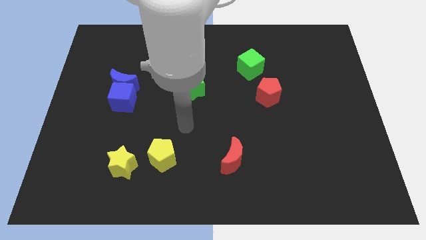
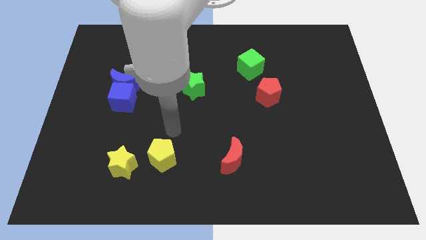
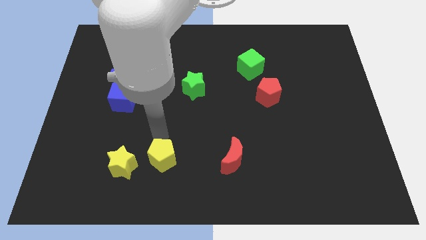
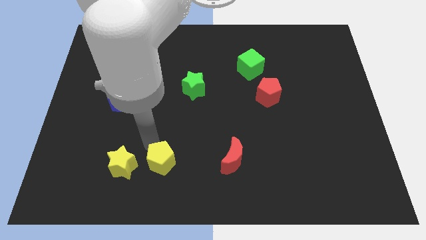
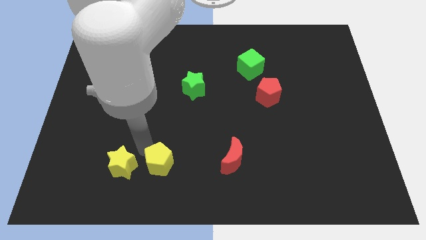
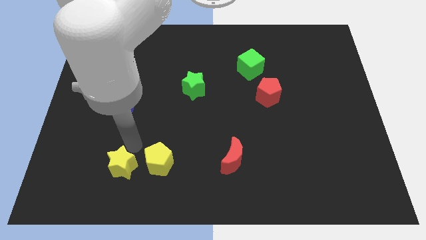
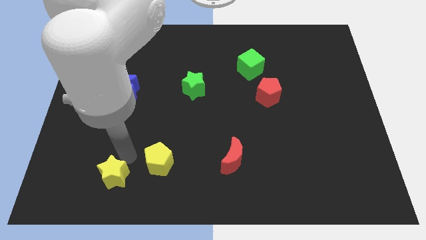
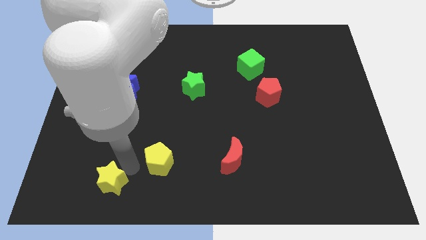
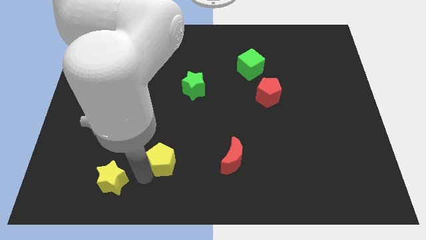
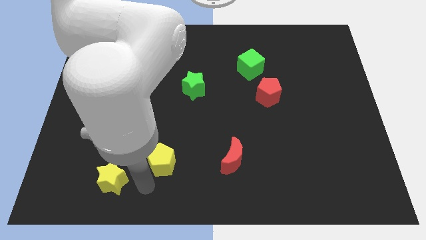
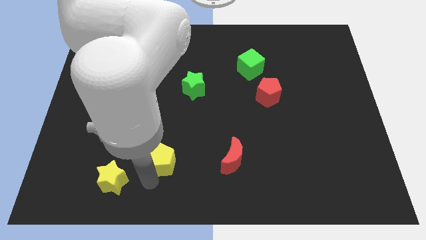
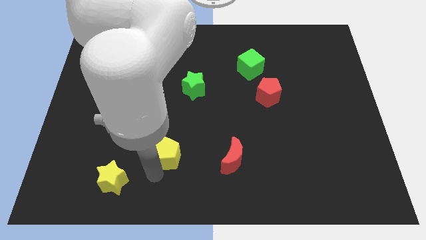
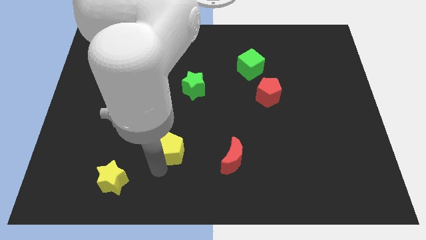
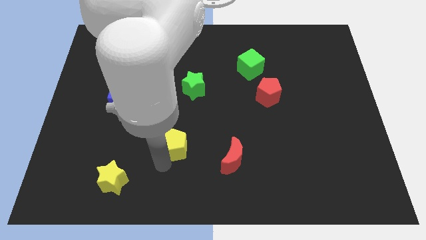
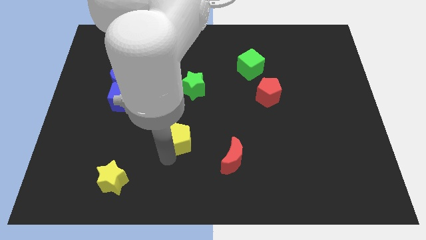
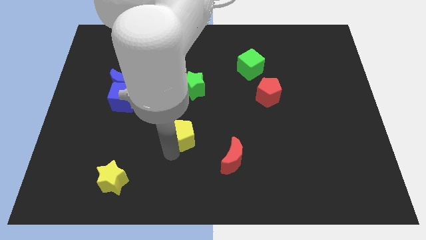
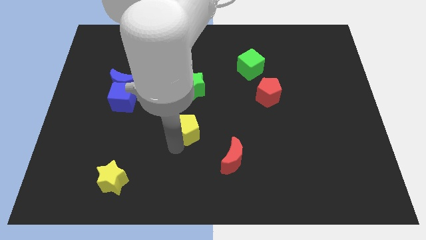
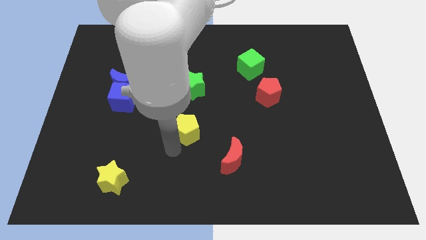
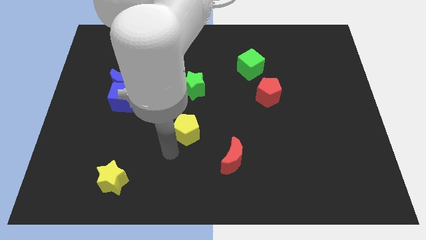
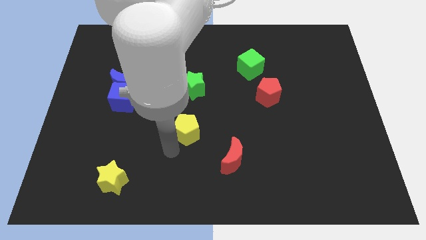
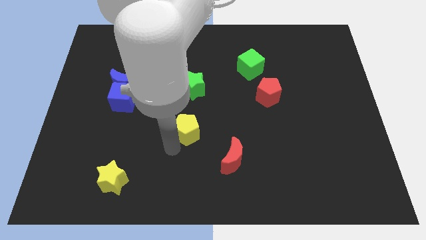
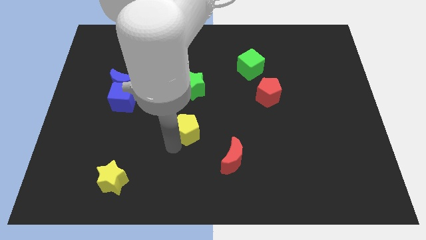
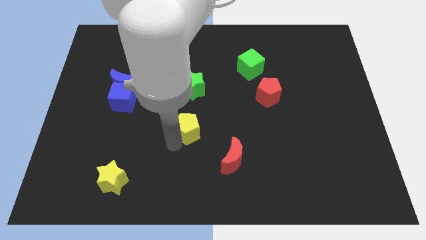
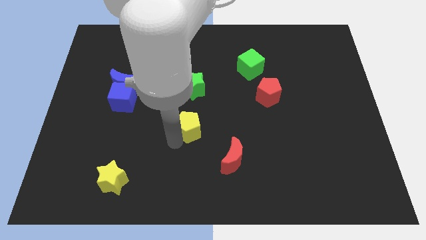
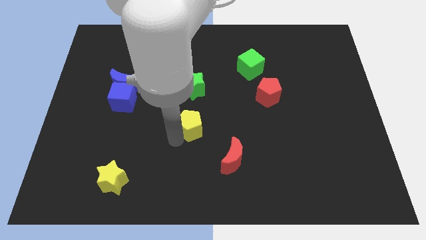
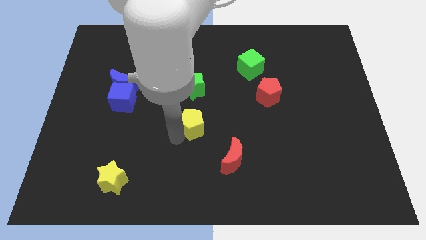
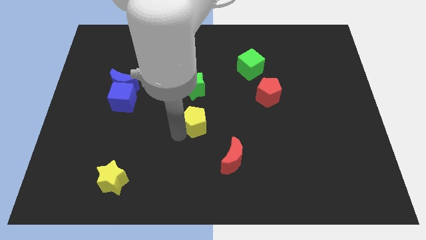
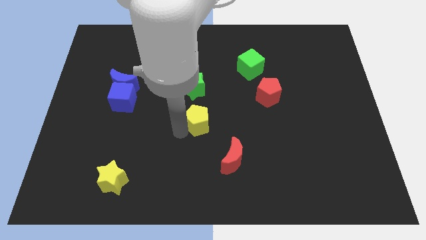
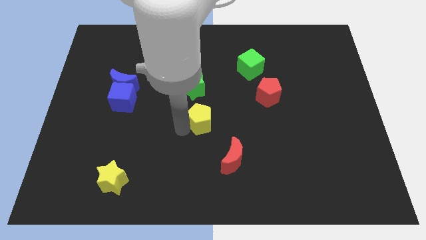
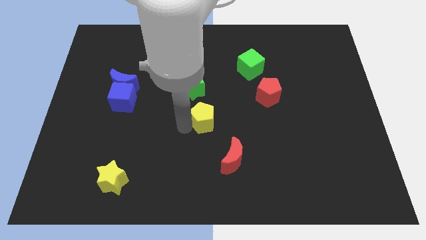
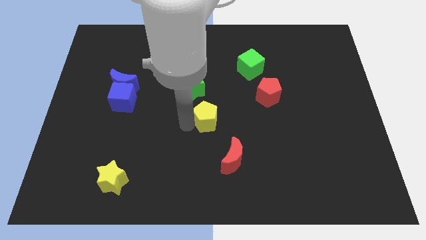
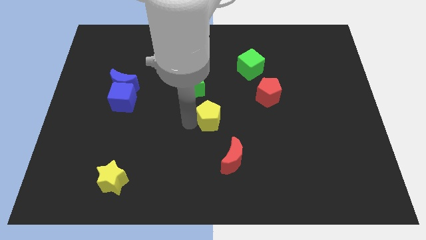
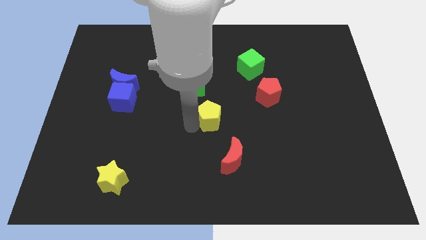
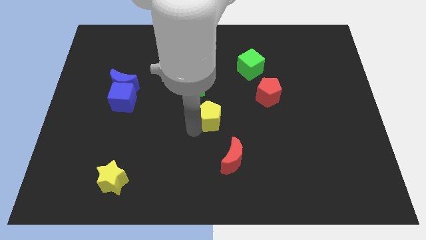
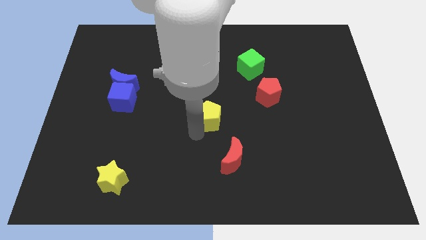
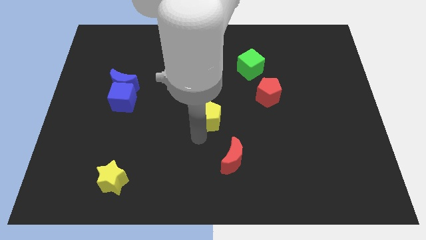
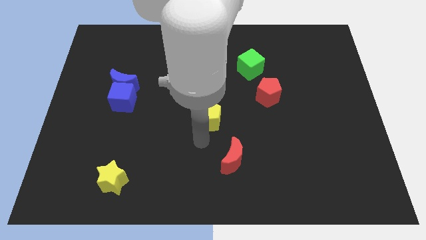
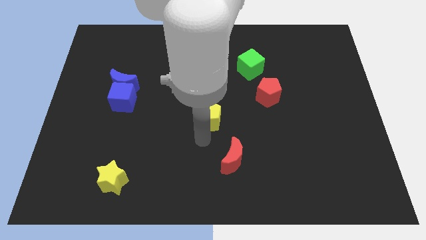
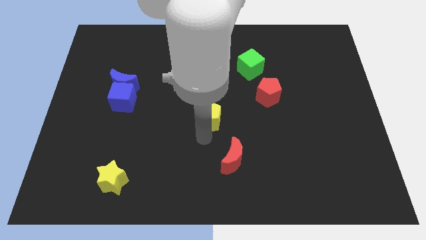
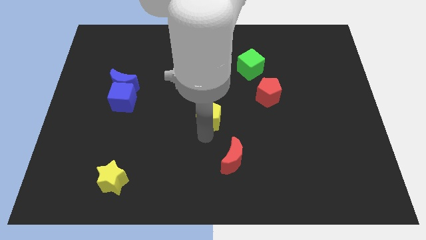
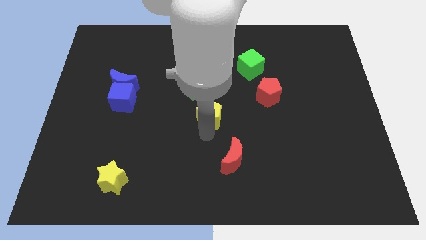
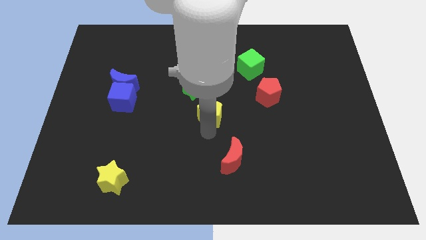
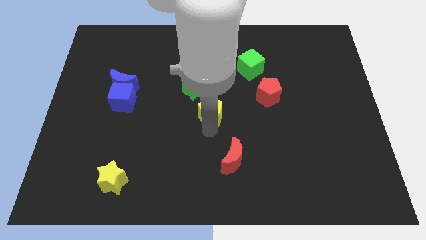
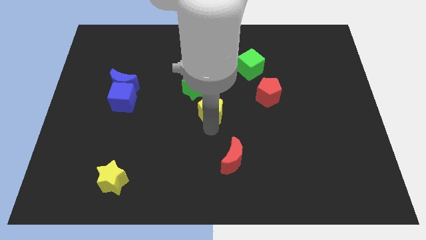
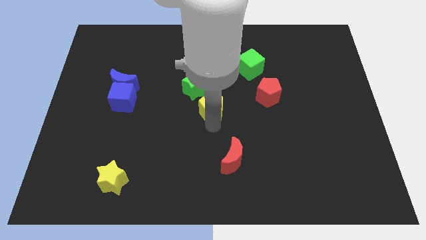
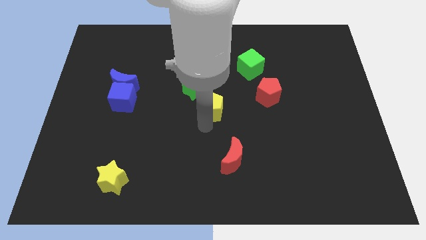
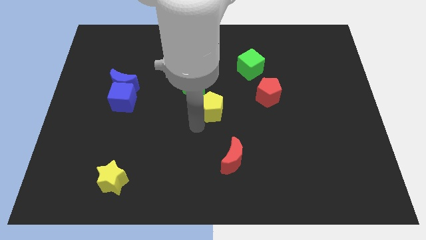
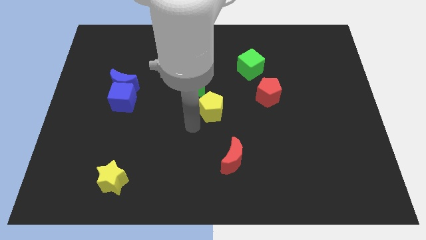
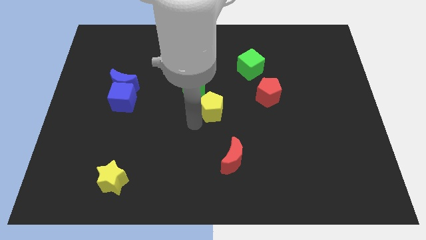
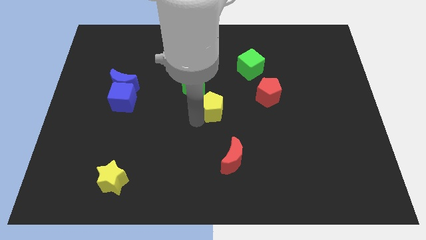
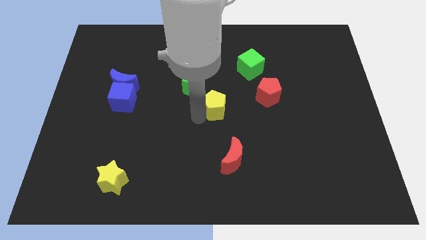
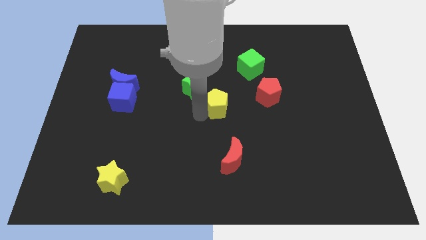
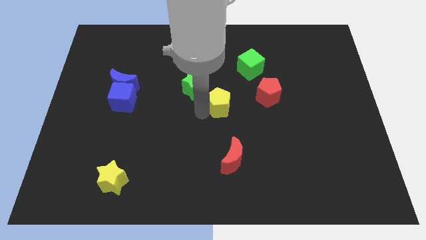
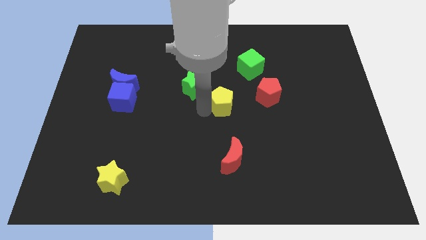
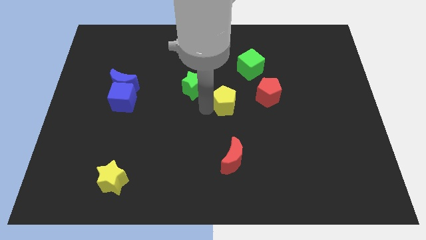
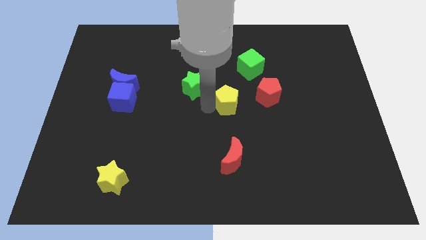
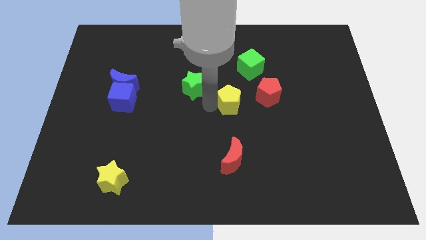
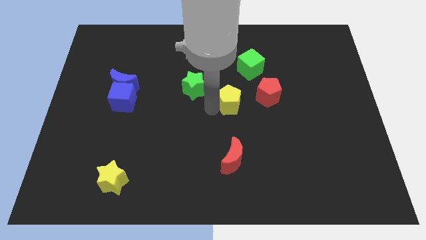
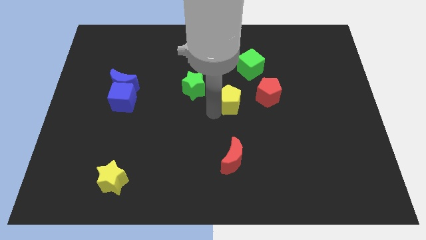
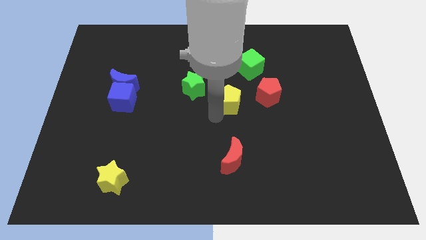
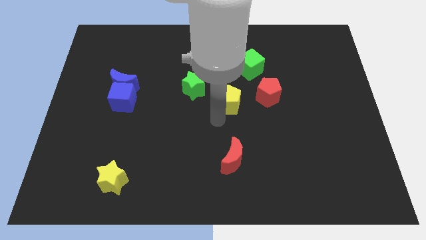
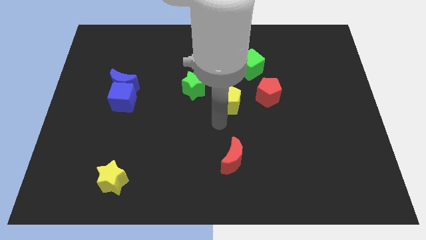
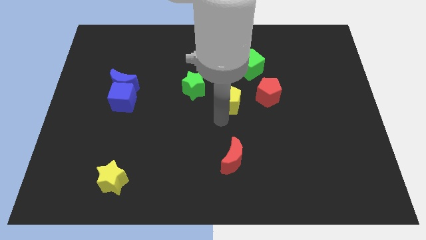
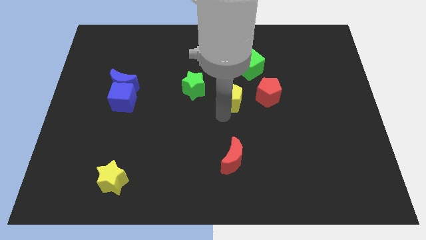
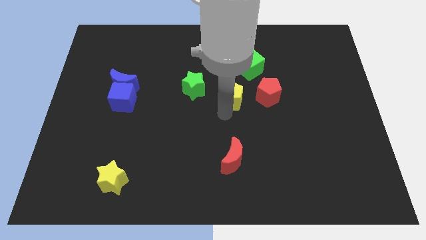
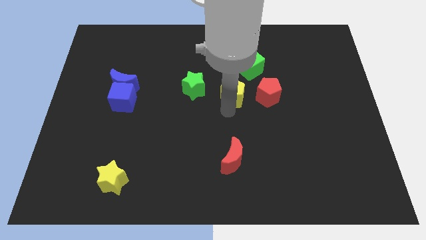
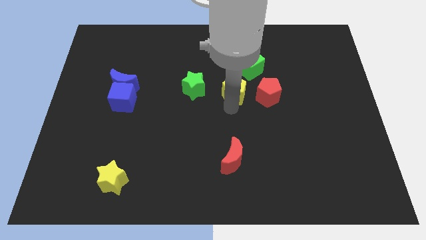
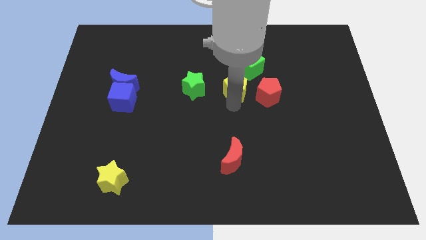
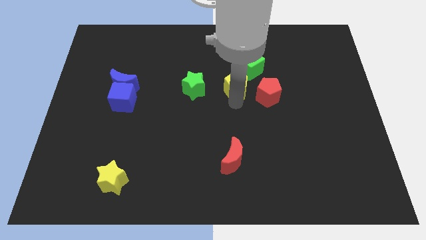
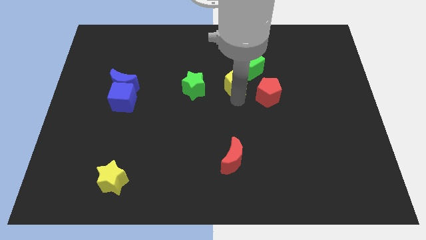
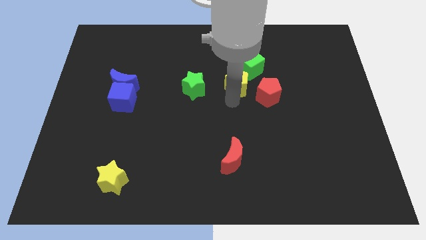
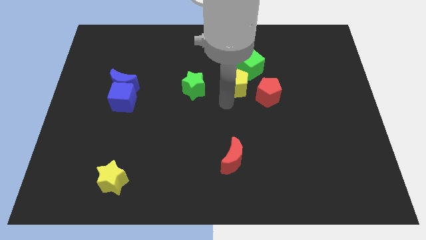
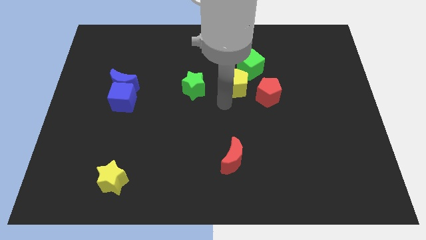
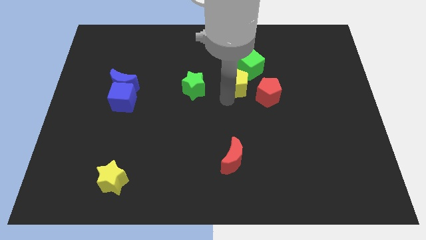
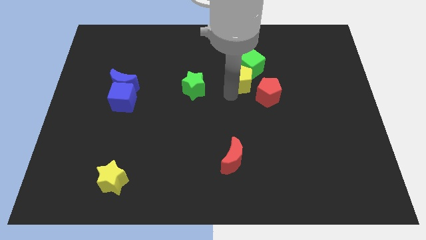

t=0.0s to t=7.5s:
move the yellow pentagon towards the green cube
